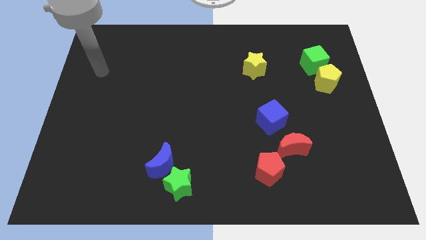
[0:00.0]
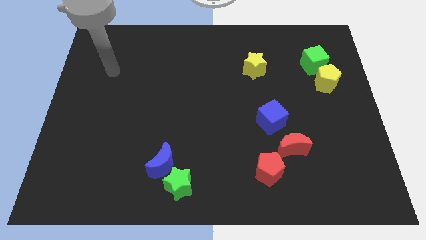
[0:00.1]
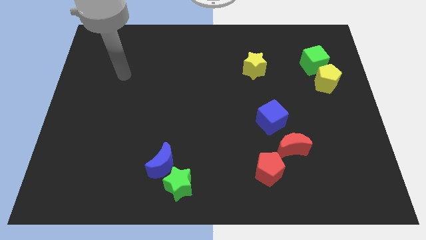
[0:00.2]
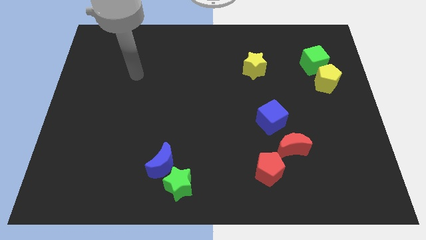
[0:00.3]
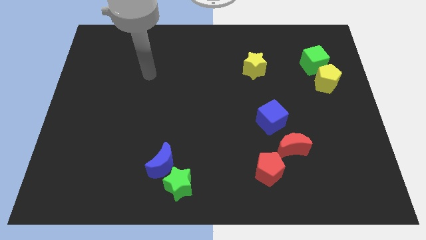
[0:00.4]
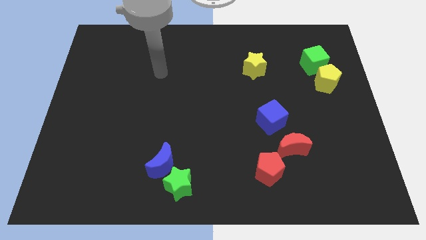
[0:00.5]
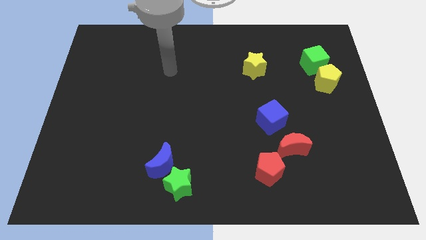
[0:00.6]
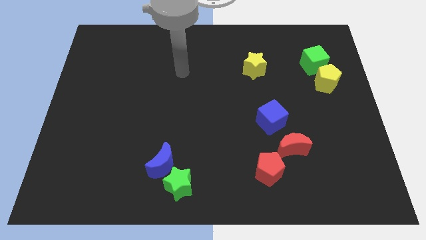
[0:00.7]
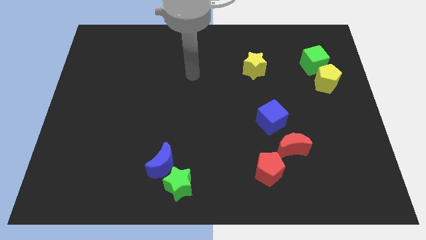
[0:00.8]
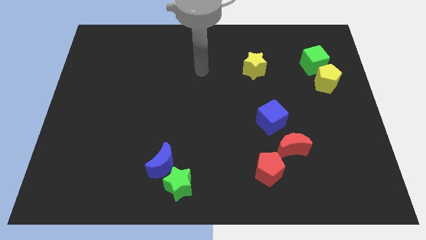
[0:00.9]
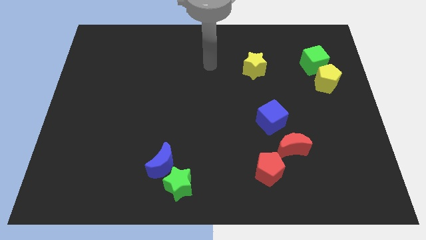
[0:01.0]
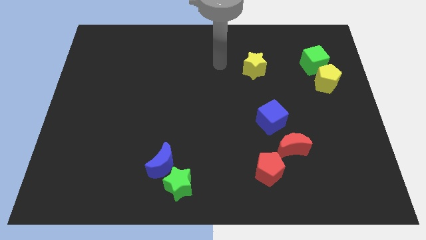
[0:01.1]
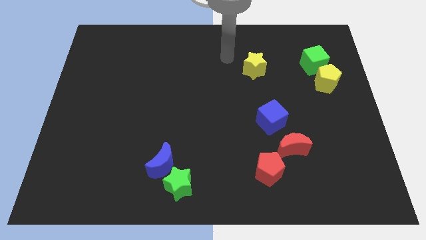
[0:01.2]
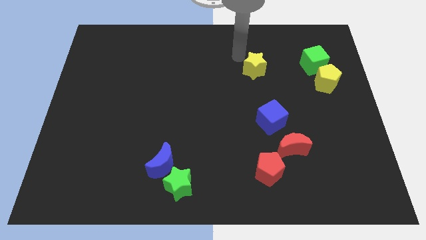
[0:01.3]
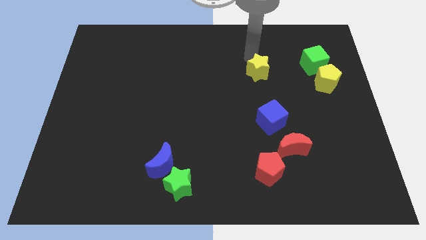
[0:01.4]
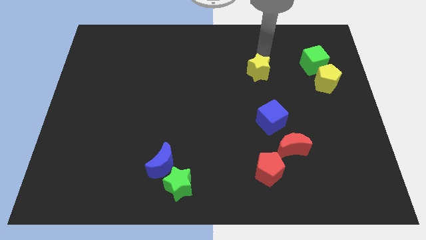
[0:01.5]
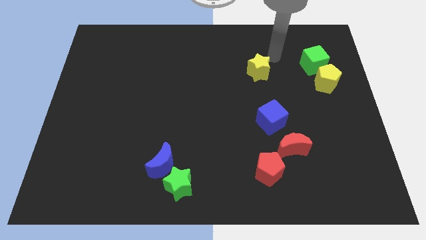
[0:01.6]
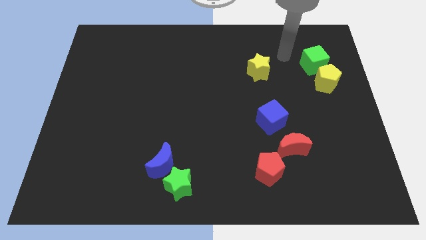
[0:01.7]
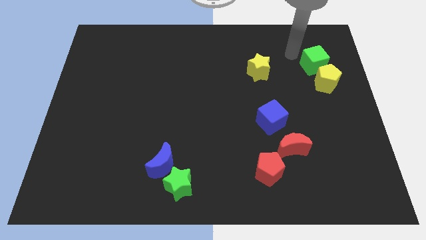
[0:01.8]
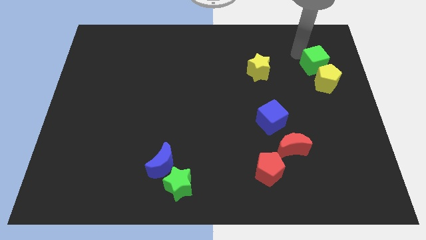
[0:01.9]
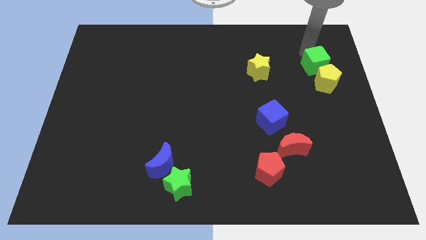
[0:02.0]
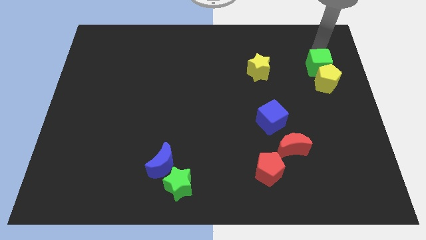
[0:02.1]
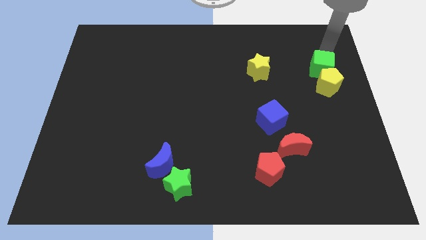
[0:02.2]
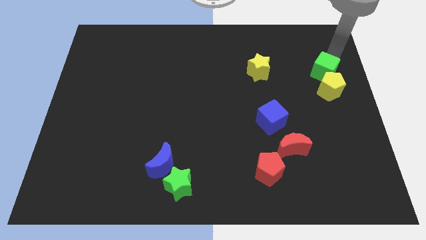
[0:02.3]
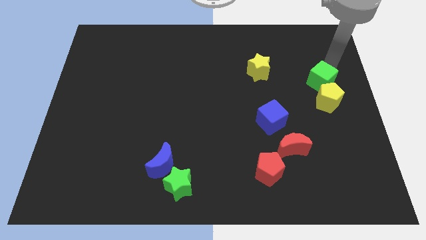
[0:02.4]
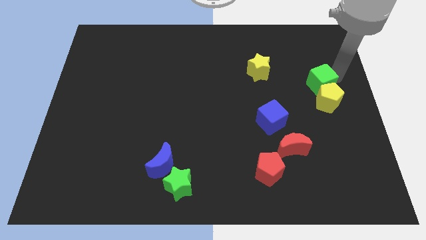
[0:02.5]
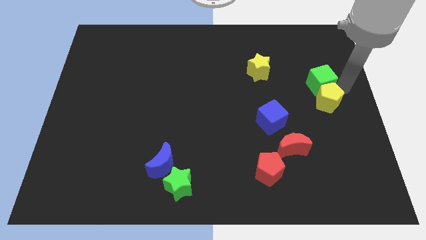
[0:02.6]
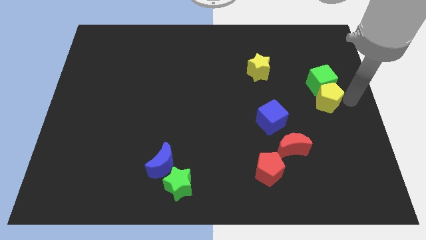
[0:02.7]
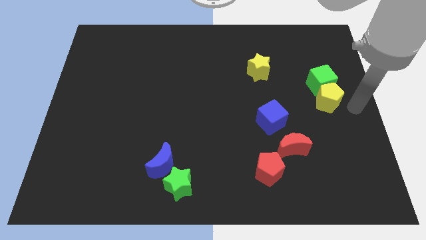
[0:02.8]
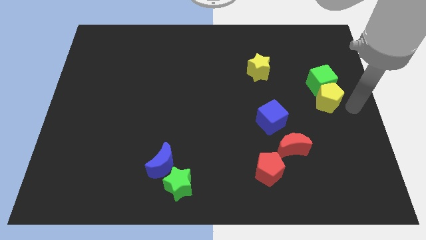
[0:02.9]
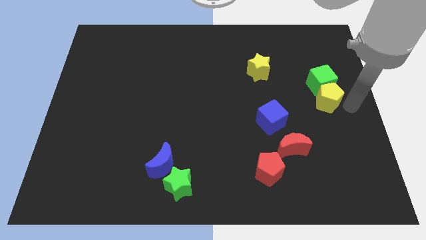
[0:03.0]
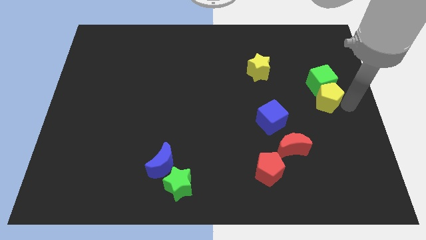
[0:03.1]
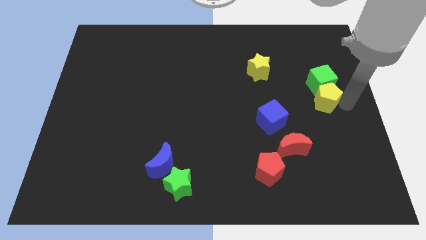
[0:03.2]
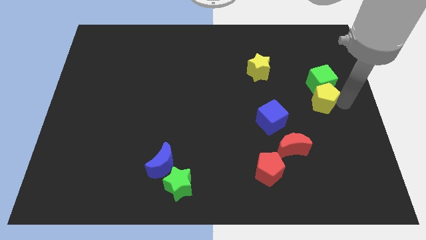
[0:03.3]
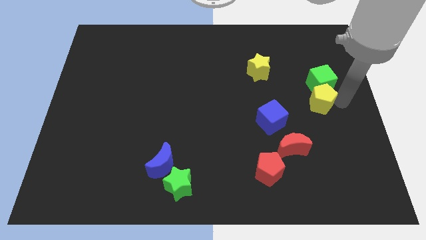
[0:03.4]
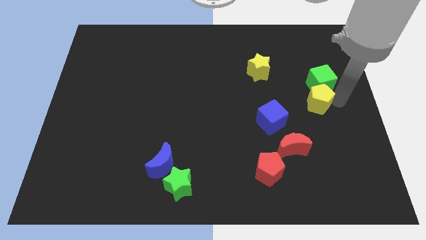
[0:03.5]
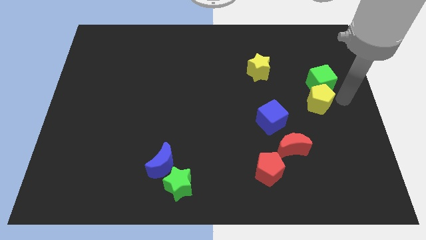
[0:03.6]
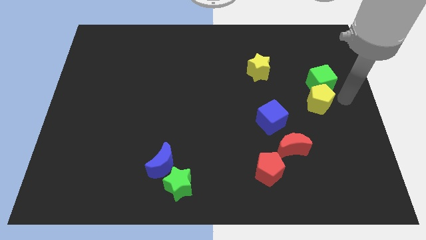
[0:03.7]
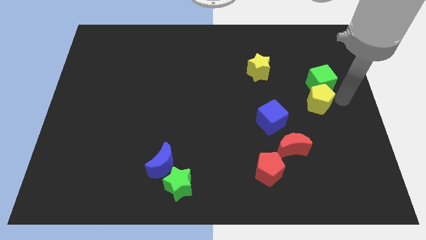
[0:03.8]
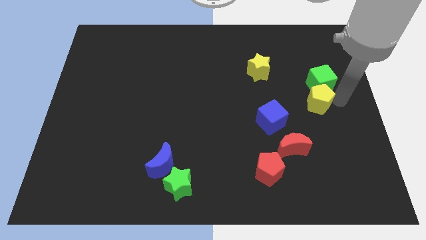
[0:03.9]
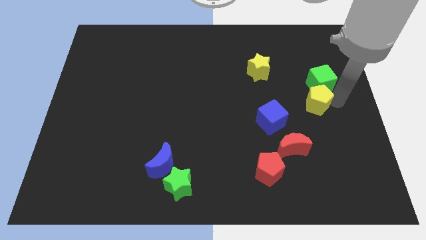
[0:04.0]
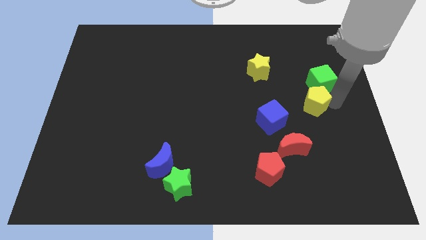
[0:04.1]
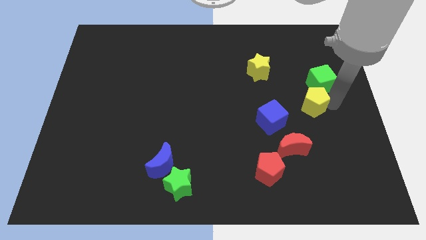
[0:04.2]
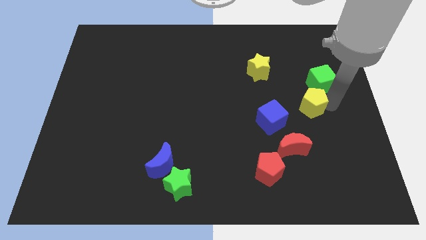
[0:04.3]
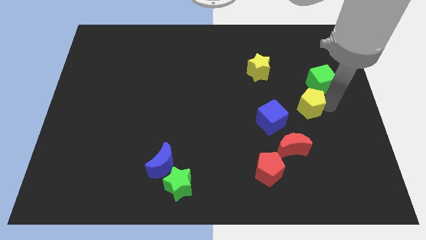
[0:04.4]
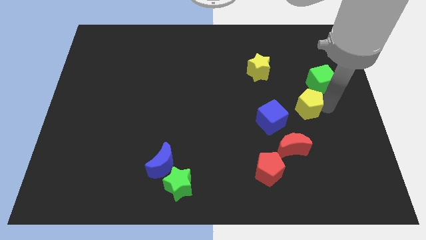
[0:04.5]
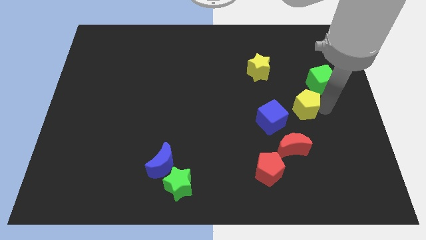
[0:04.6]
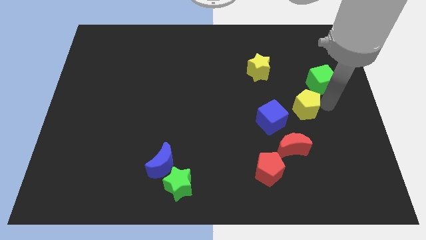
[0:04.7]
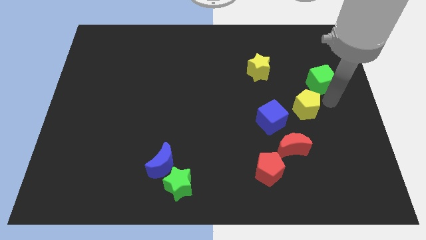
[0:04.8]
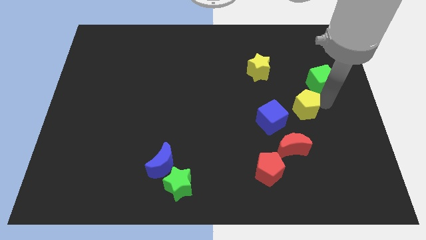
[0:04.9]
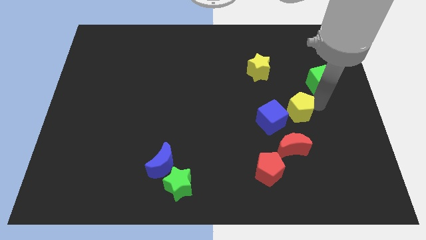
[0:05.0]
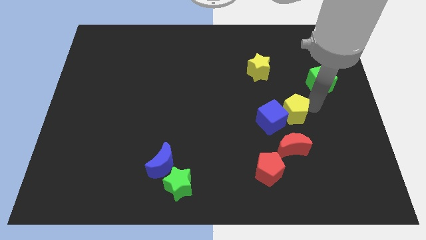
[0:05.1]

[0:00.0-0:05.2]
push the yellow pentagon next to the blue cube

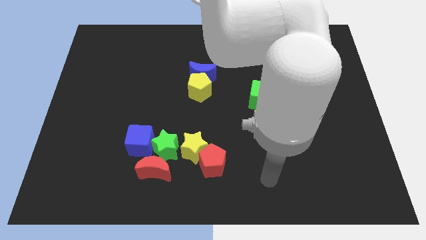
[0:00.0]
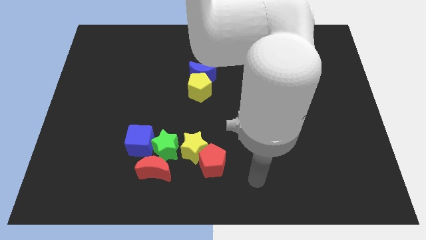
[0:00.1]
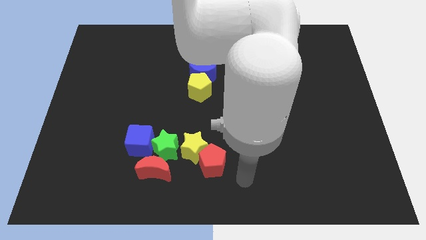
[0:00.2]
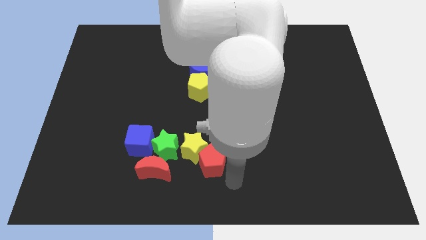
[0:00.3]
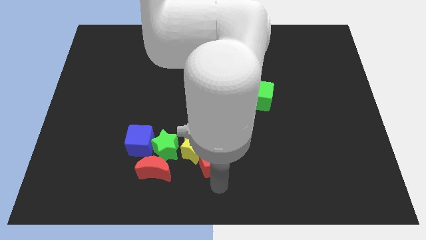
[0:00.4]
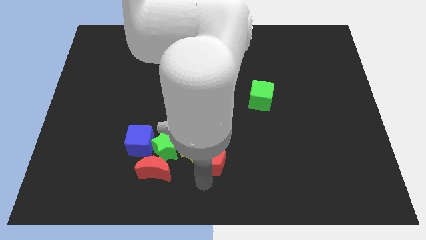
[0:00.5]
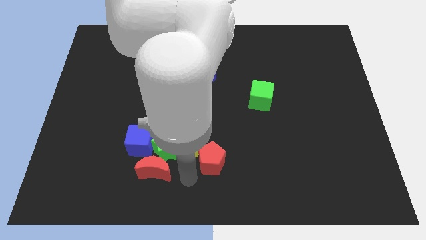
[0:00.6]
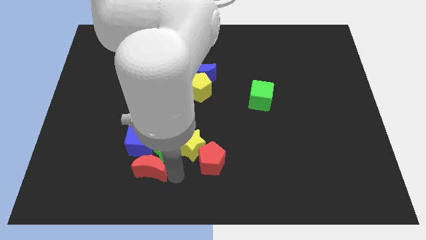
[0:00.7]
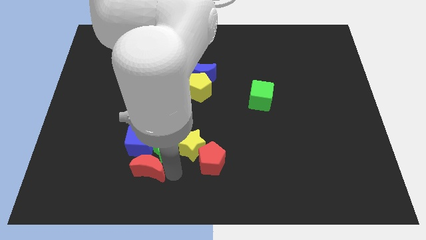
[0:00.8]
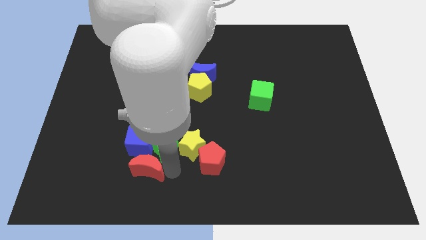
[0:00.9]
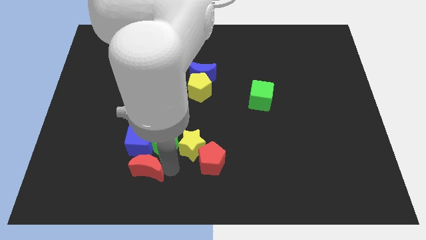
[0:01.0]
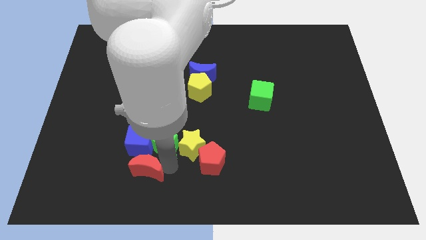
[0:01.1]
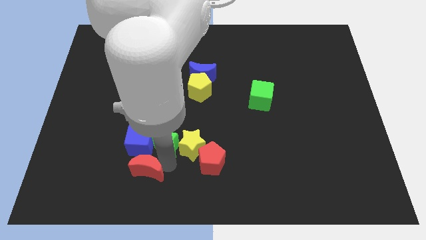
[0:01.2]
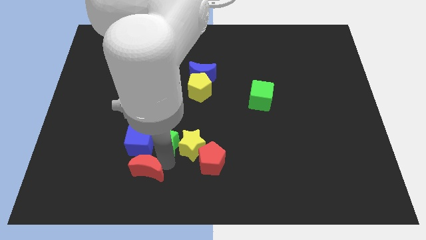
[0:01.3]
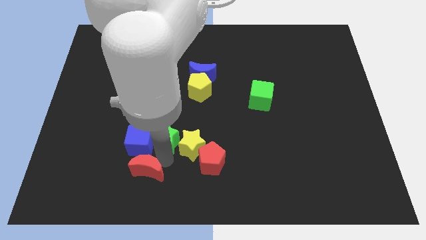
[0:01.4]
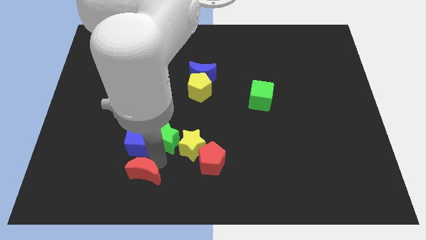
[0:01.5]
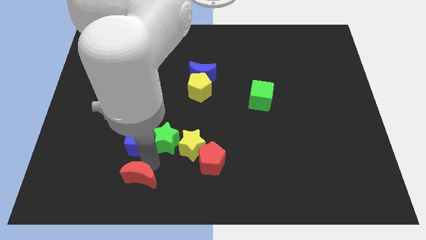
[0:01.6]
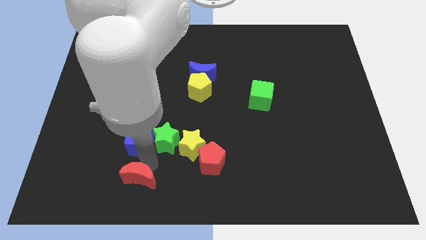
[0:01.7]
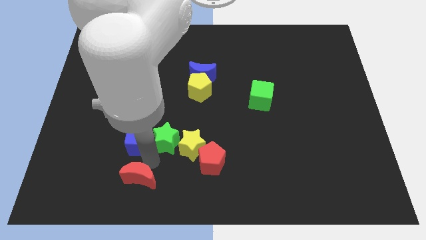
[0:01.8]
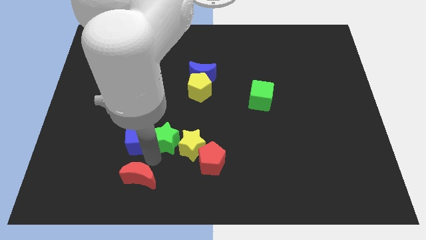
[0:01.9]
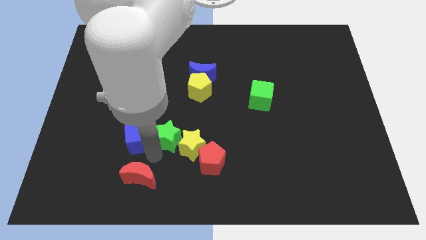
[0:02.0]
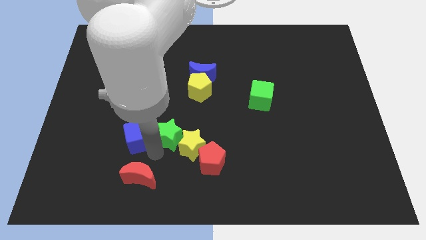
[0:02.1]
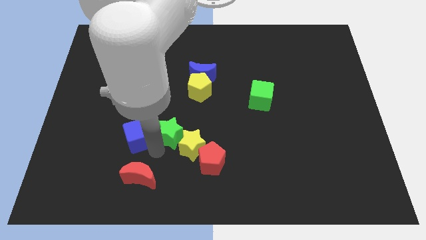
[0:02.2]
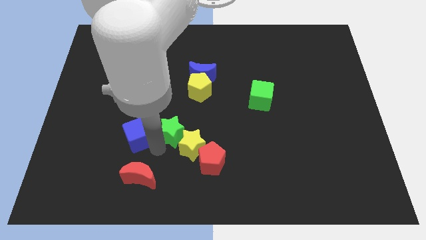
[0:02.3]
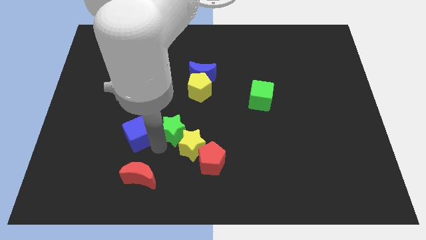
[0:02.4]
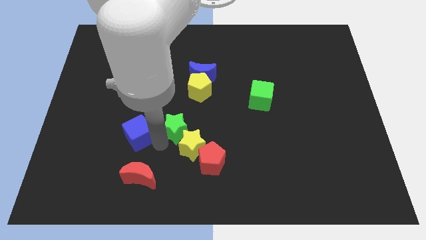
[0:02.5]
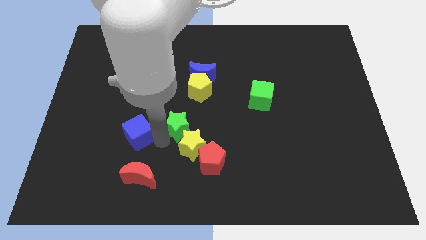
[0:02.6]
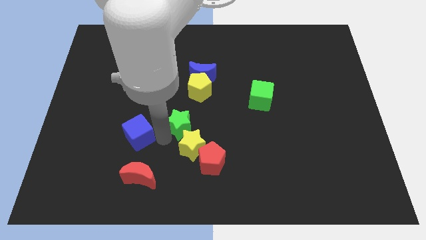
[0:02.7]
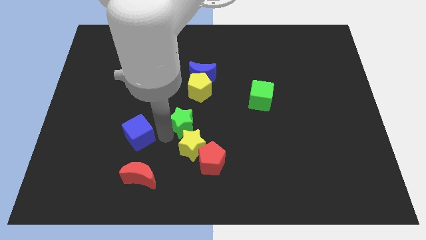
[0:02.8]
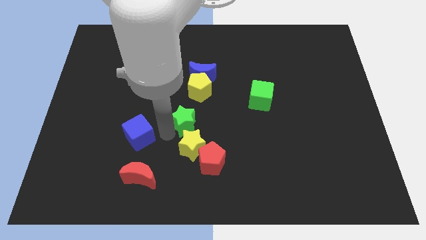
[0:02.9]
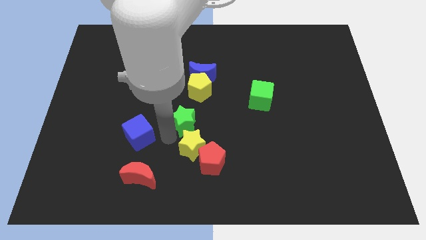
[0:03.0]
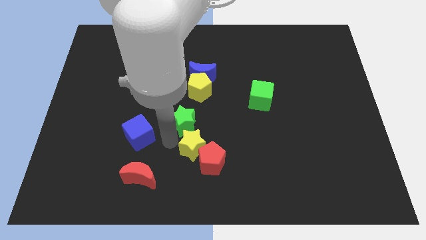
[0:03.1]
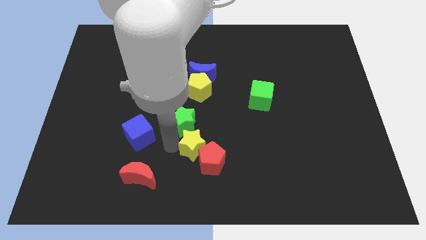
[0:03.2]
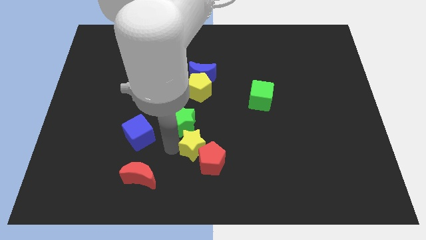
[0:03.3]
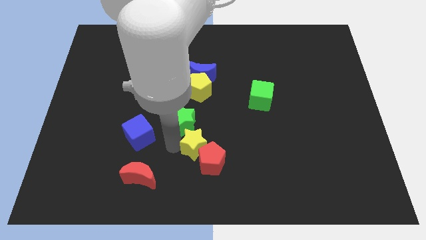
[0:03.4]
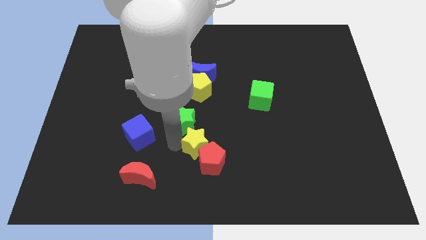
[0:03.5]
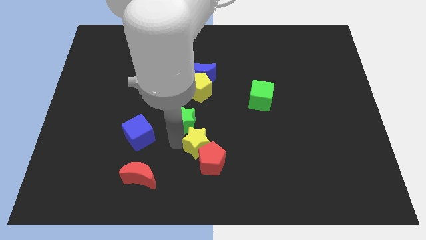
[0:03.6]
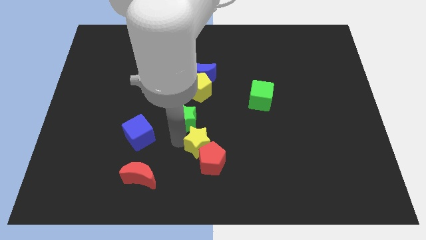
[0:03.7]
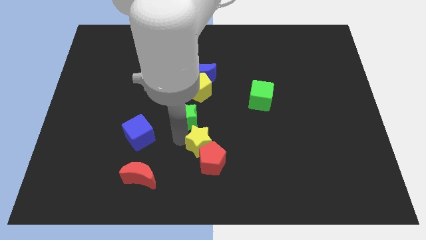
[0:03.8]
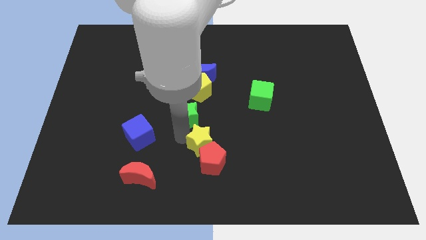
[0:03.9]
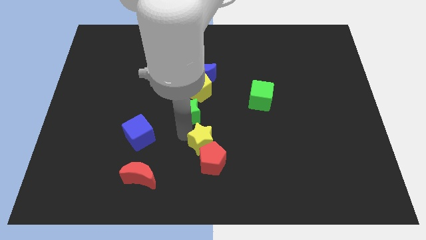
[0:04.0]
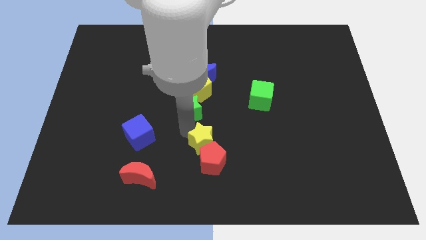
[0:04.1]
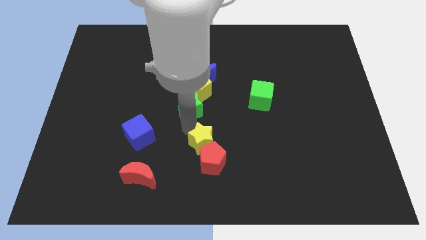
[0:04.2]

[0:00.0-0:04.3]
slide the green star towards the yellow pentagon
